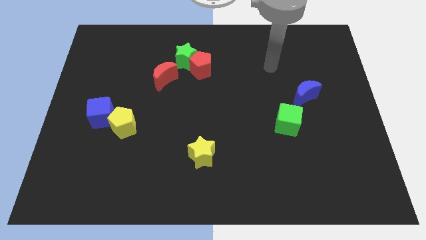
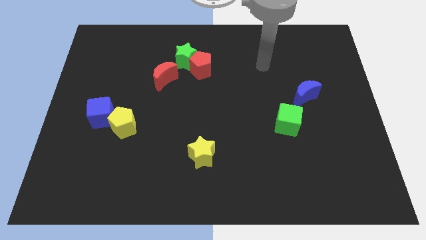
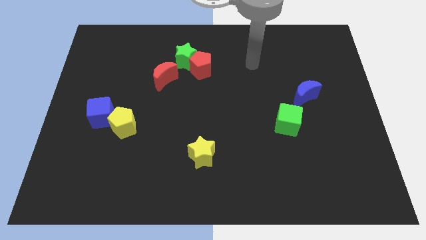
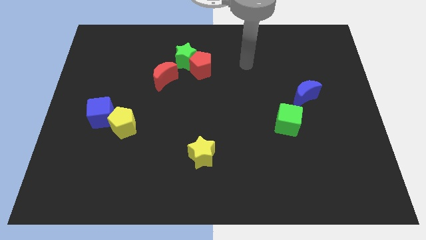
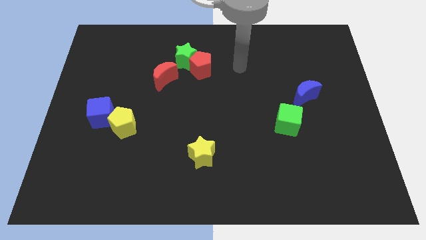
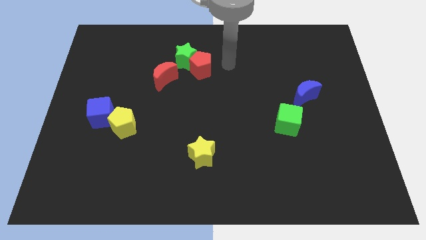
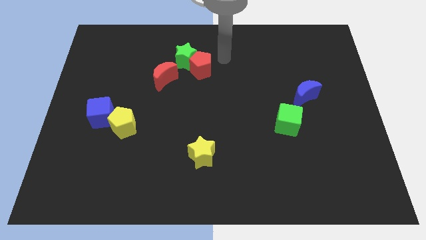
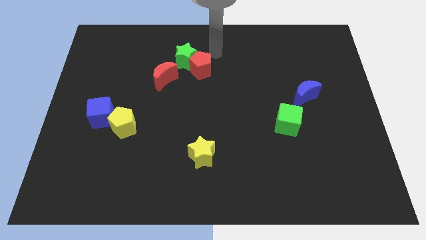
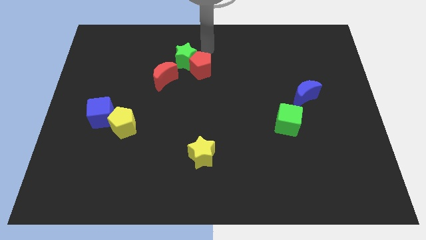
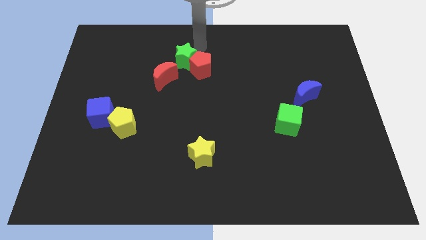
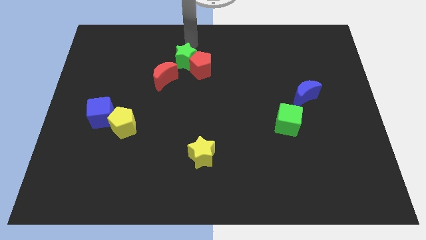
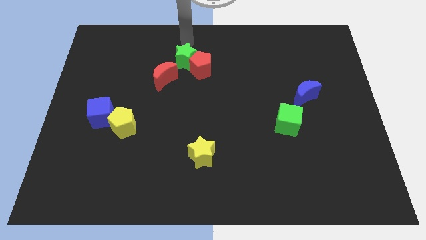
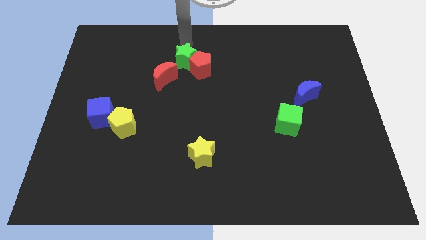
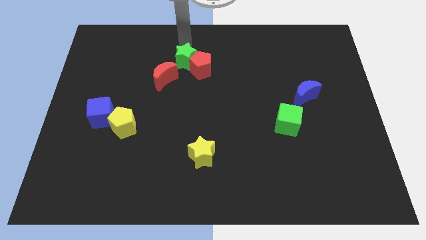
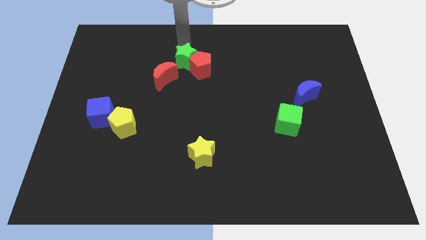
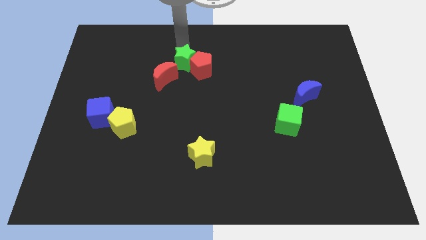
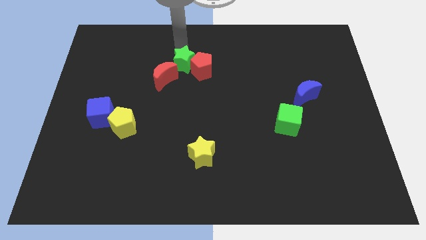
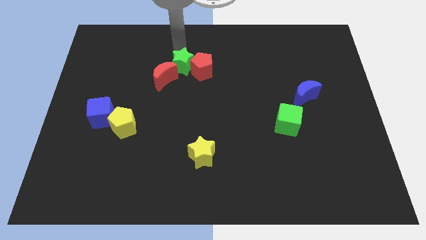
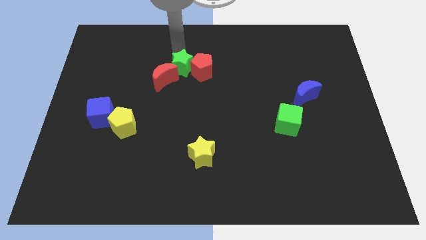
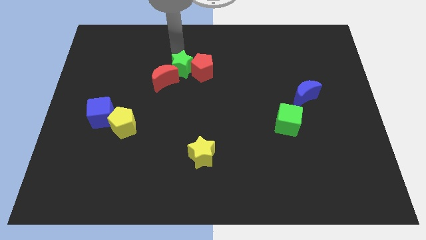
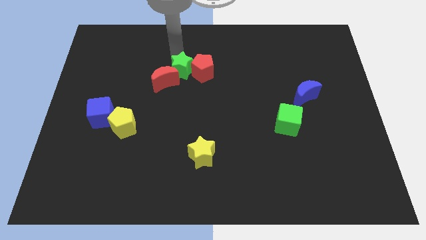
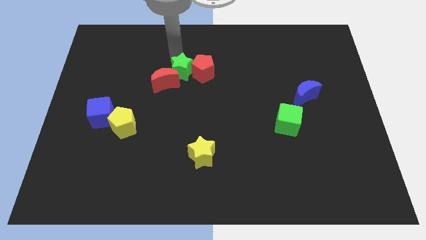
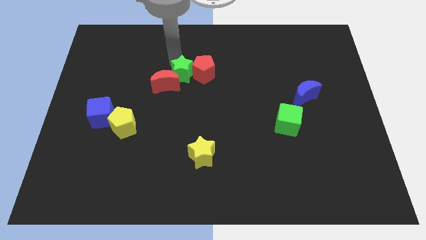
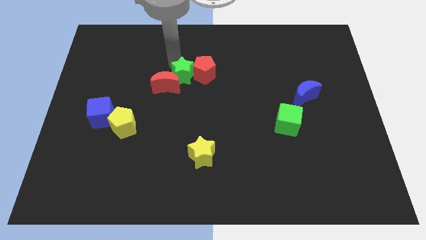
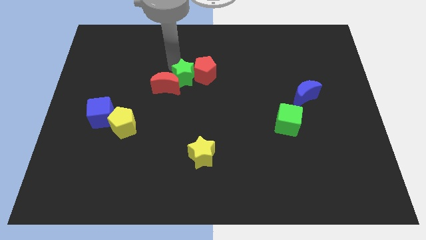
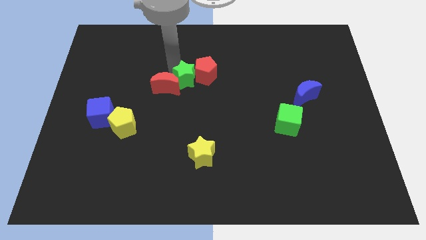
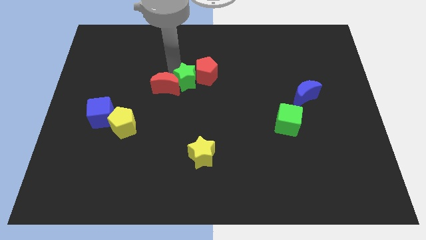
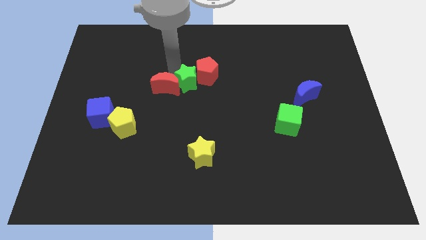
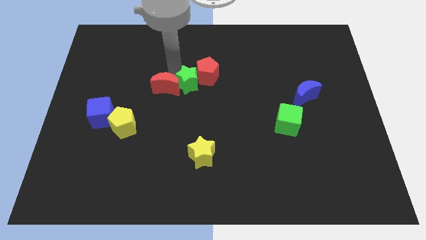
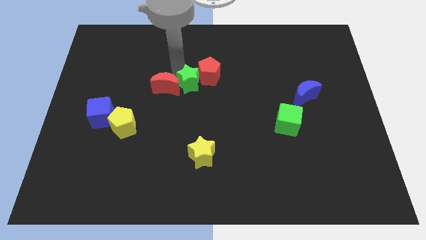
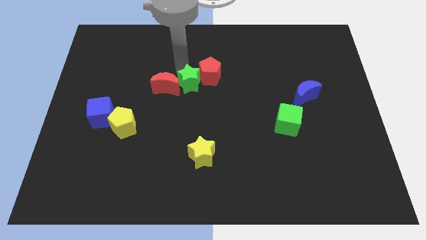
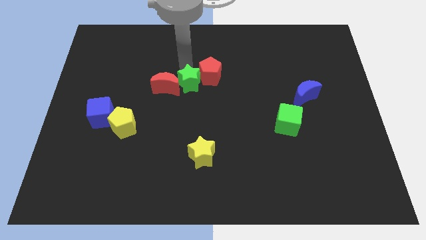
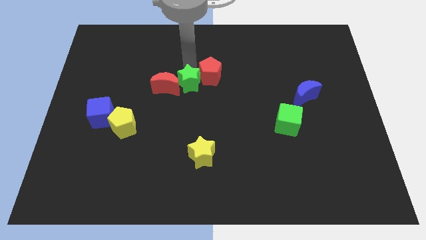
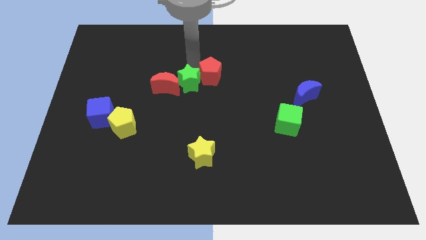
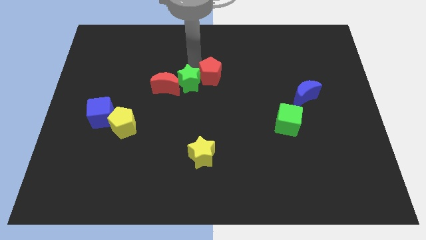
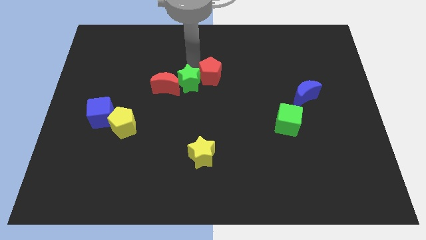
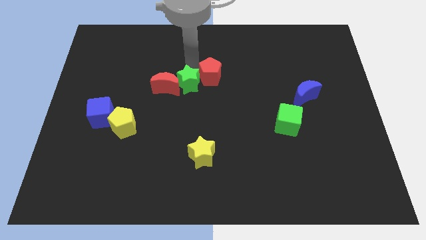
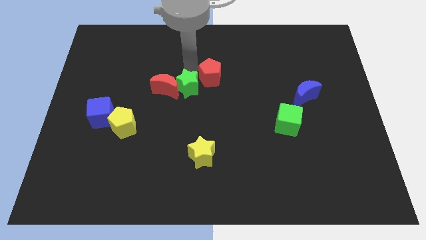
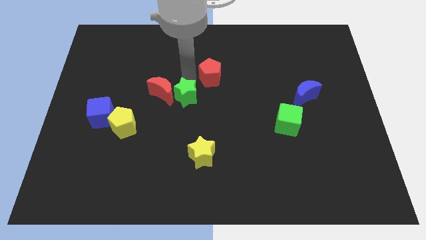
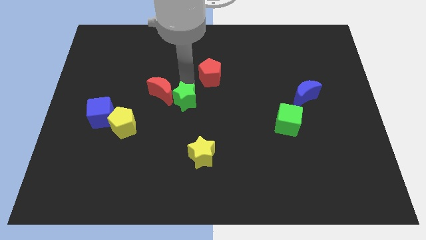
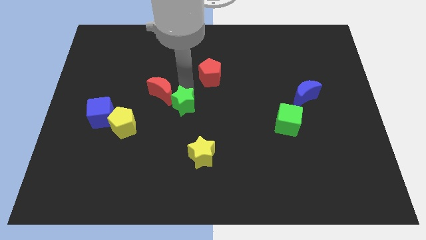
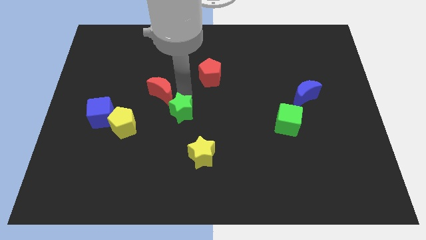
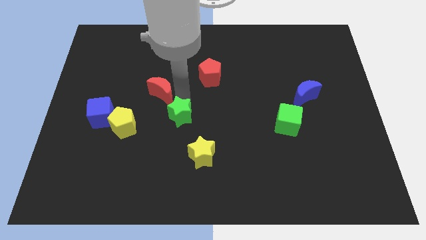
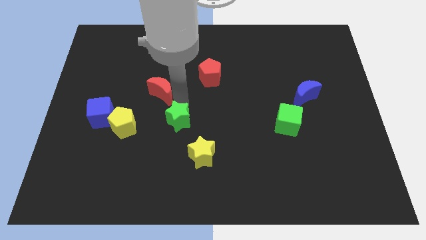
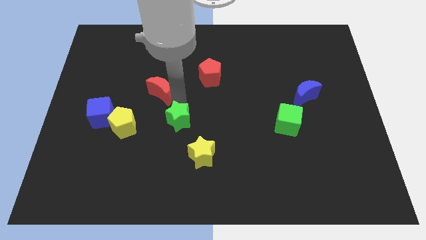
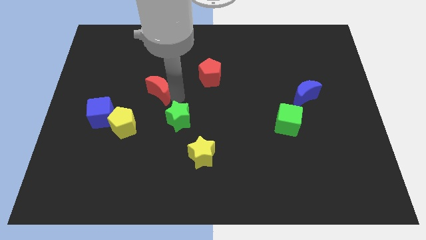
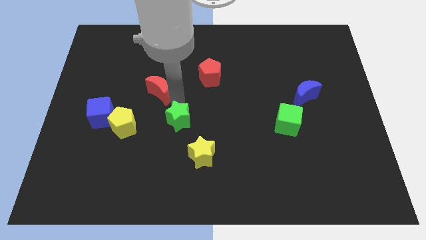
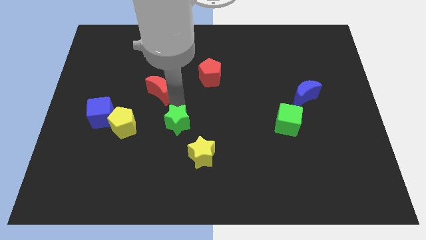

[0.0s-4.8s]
slide the green star down

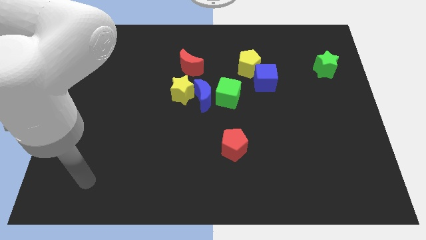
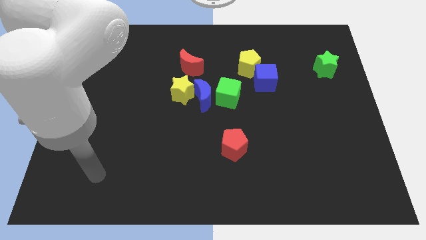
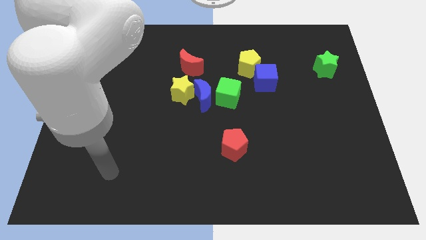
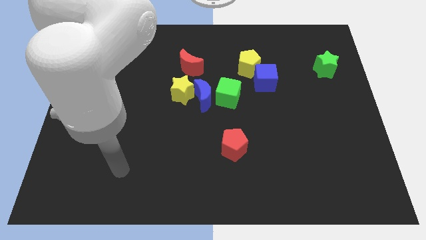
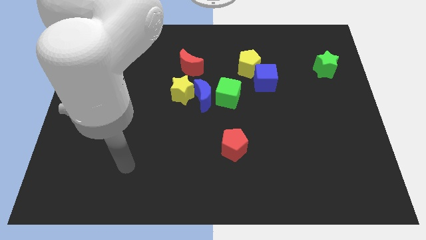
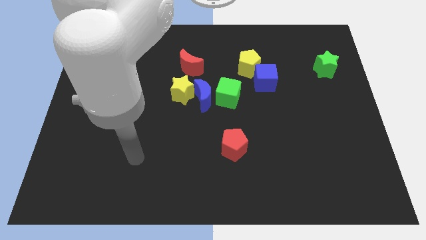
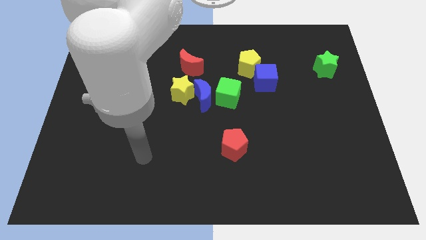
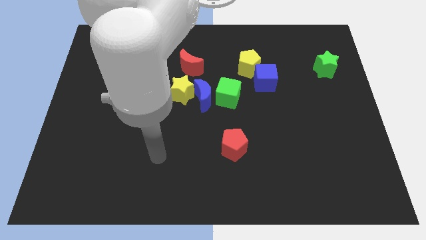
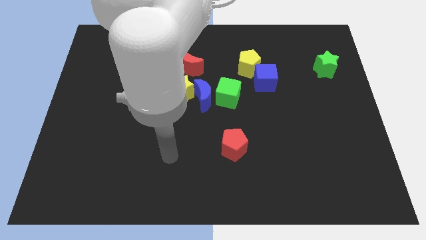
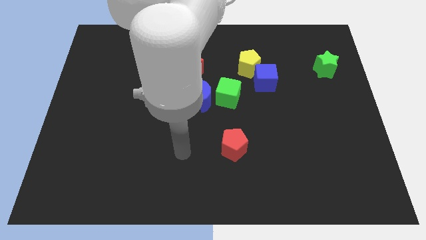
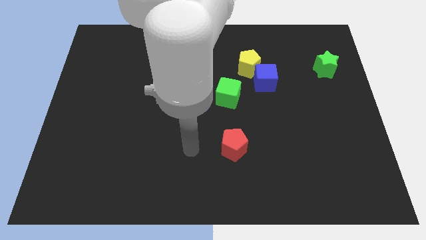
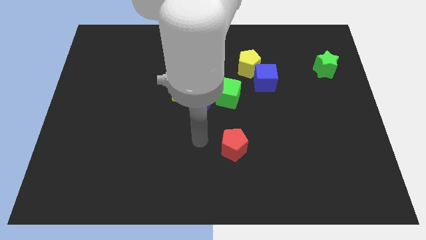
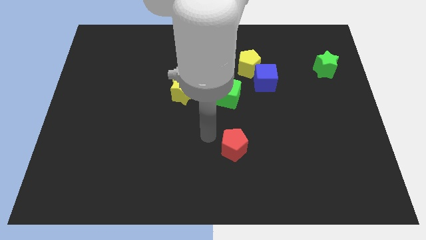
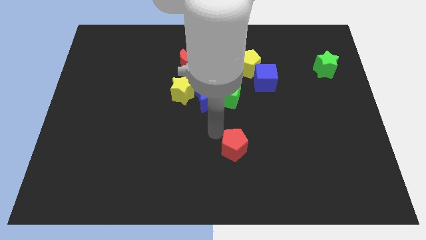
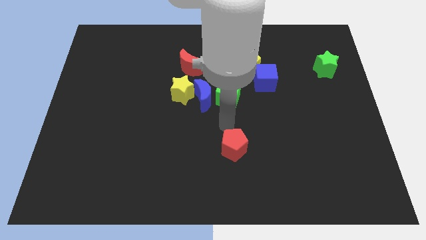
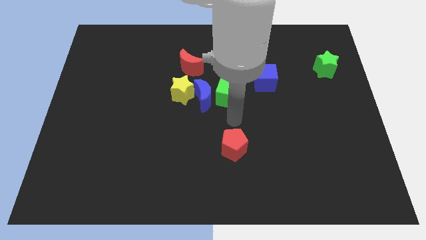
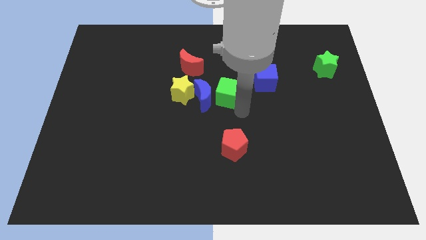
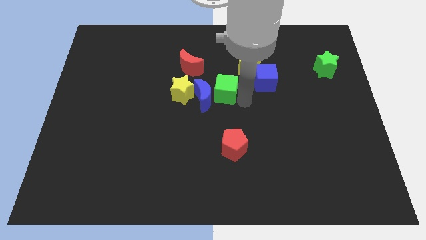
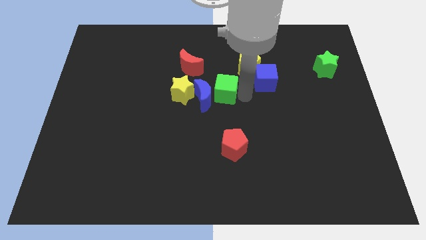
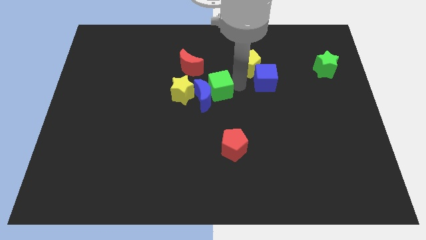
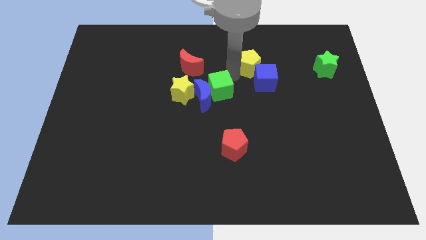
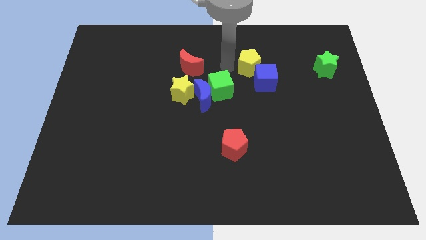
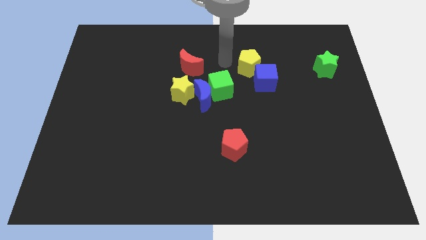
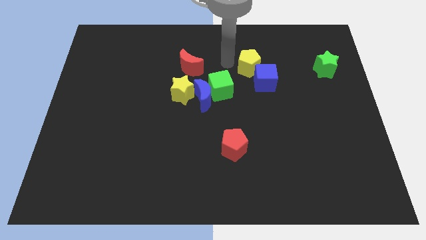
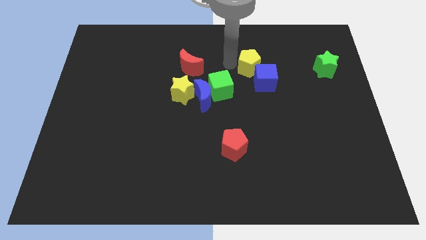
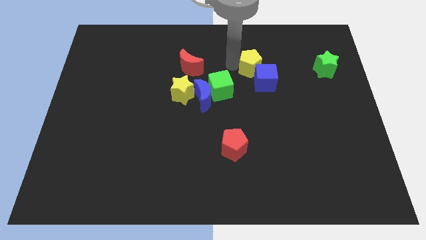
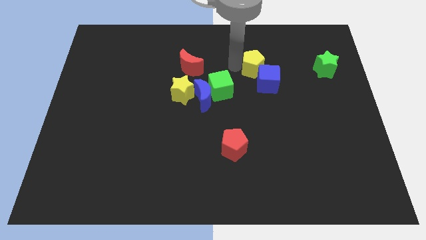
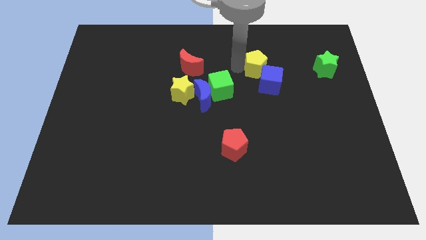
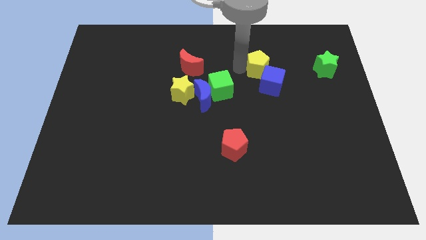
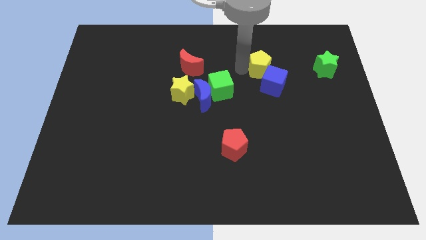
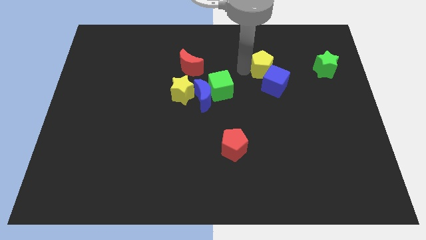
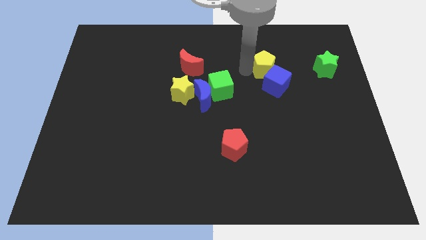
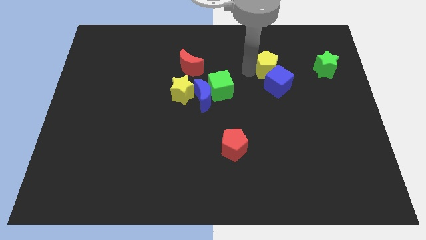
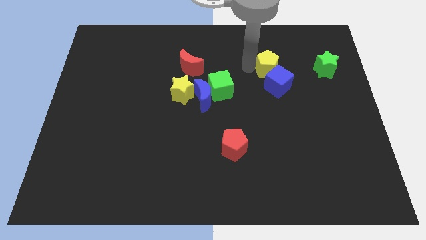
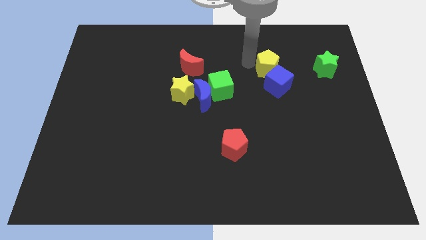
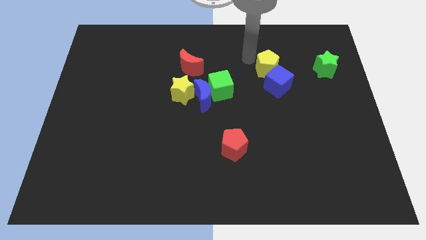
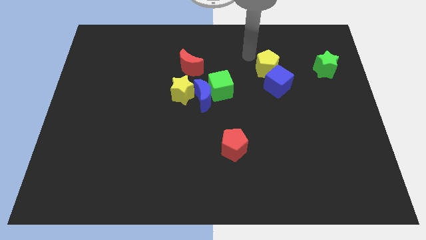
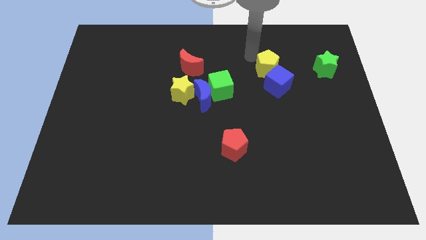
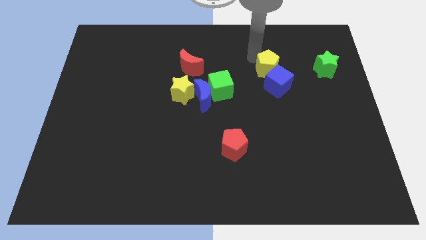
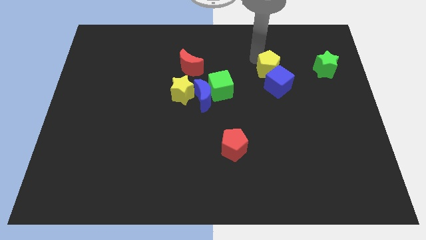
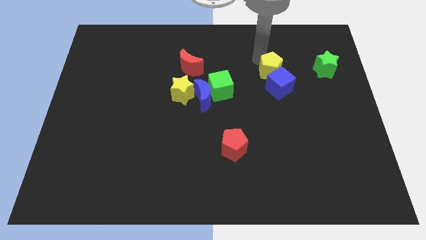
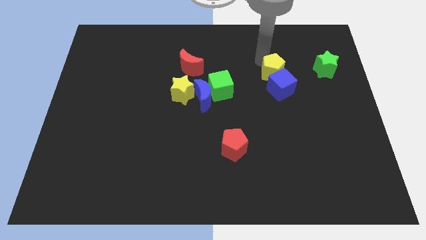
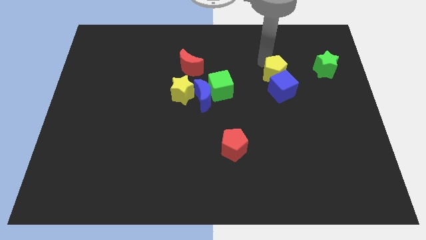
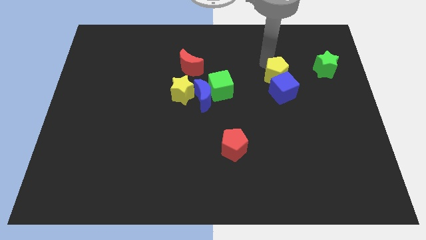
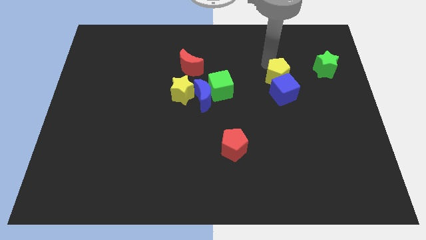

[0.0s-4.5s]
push the yellow pentagon a bit diagonally downwards and right
